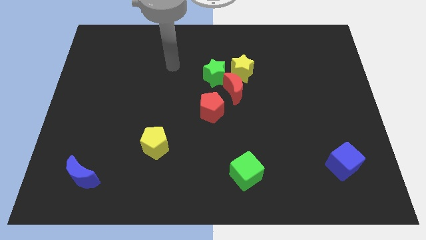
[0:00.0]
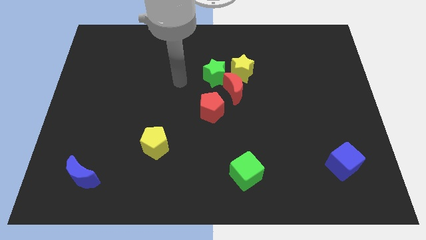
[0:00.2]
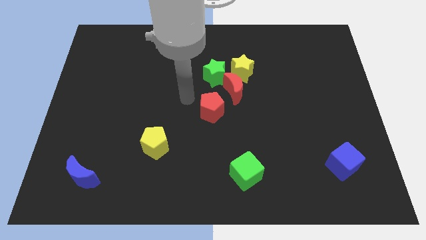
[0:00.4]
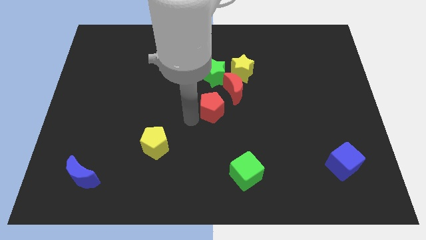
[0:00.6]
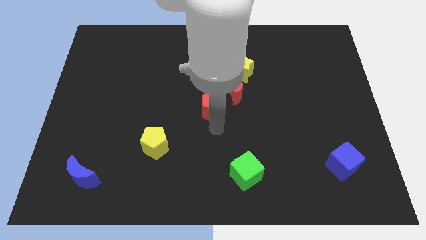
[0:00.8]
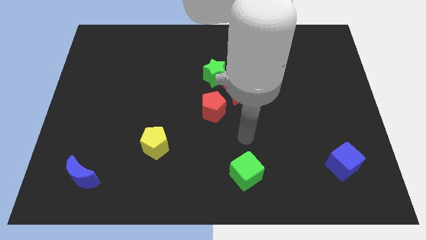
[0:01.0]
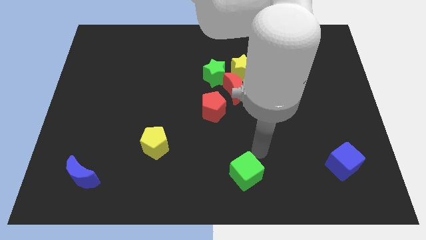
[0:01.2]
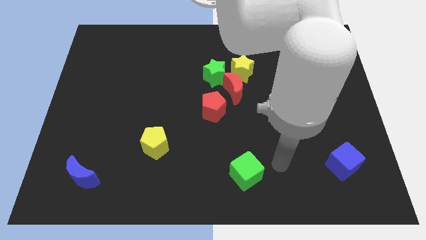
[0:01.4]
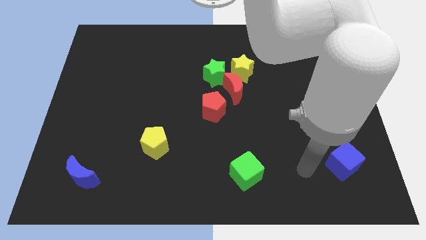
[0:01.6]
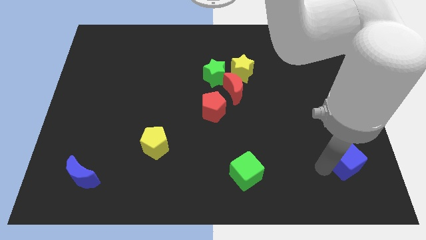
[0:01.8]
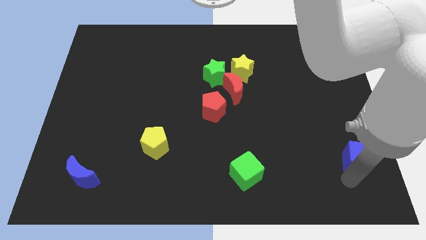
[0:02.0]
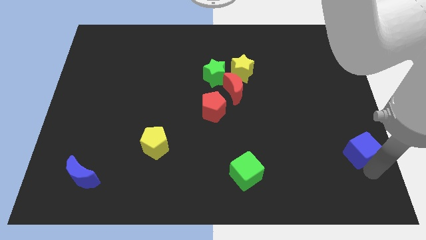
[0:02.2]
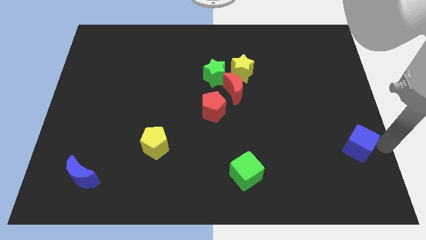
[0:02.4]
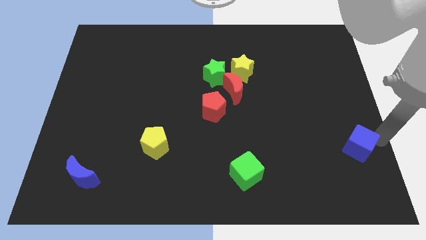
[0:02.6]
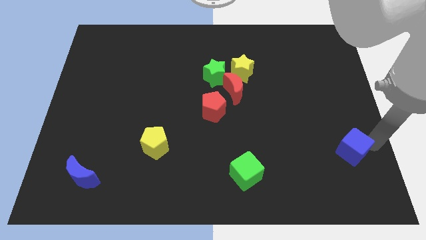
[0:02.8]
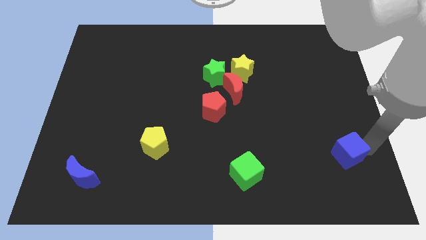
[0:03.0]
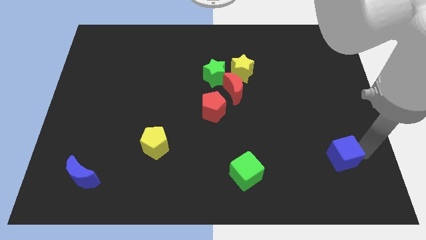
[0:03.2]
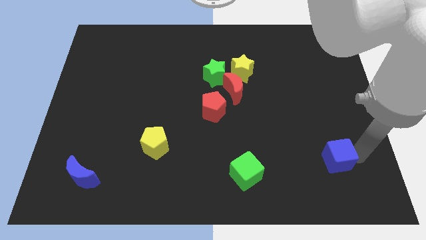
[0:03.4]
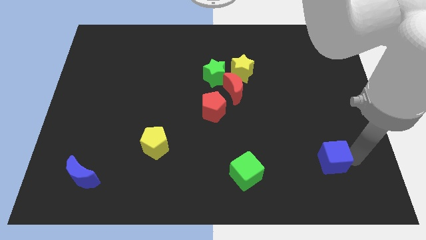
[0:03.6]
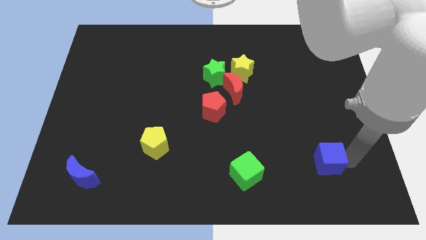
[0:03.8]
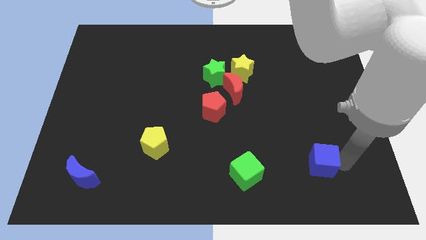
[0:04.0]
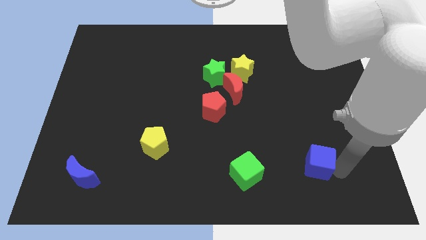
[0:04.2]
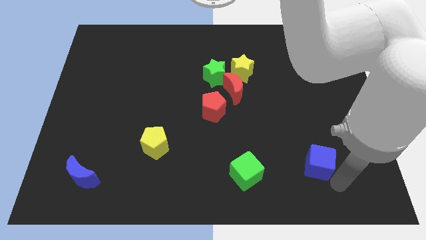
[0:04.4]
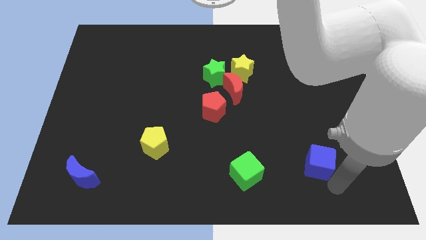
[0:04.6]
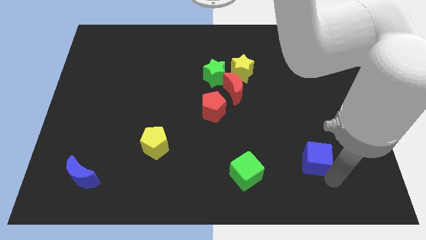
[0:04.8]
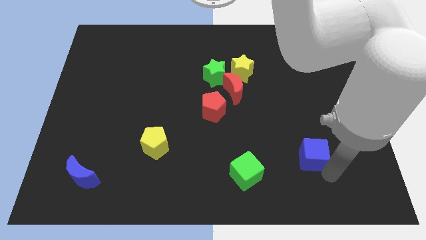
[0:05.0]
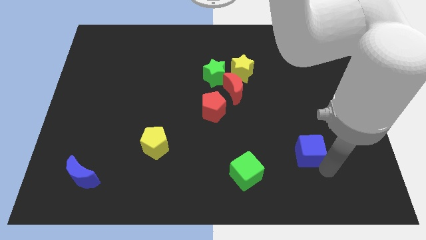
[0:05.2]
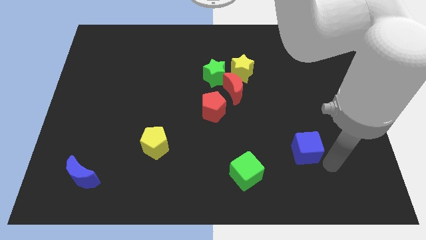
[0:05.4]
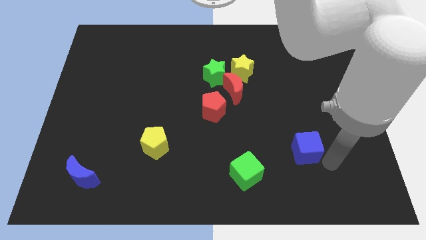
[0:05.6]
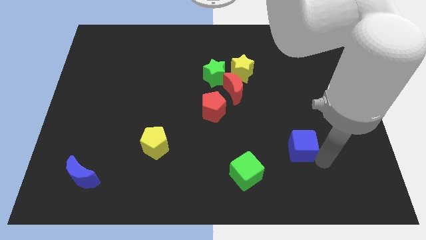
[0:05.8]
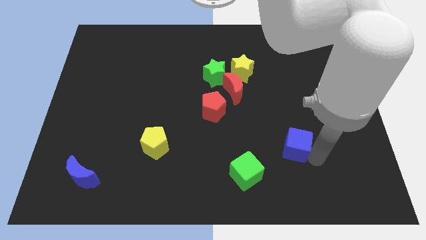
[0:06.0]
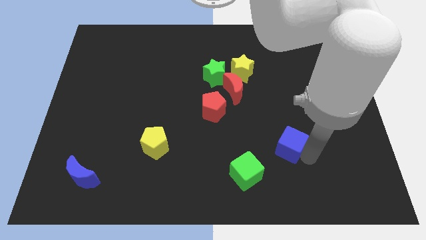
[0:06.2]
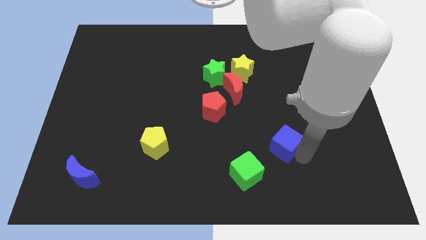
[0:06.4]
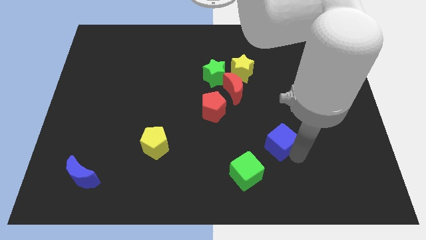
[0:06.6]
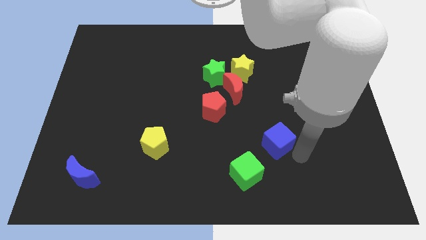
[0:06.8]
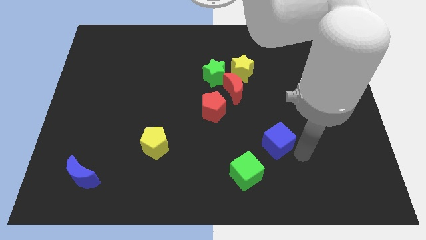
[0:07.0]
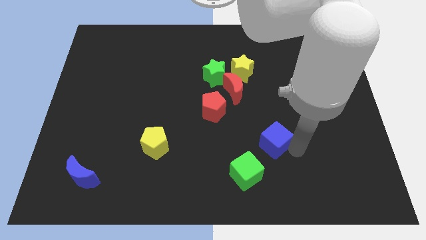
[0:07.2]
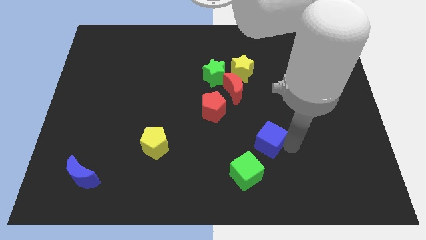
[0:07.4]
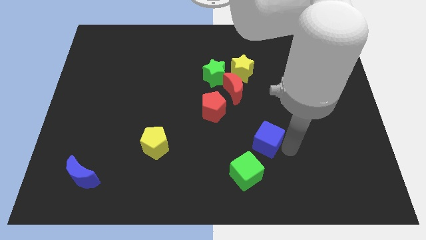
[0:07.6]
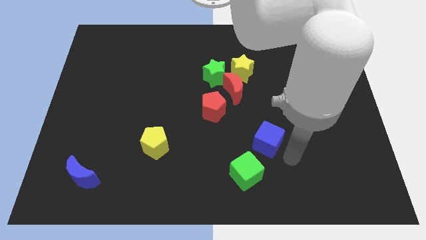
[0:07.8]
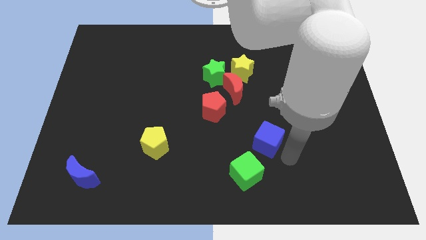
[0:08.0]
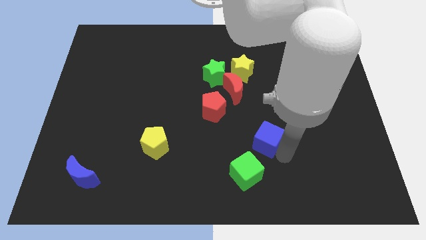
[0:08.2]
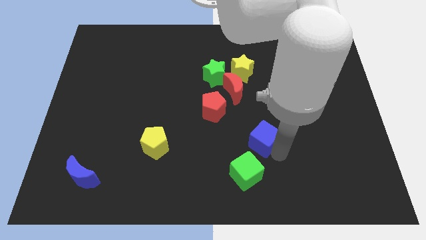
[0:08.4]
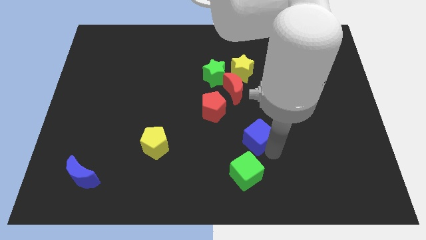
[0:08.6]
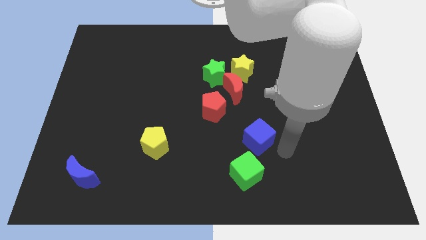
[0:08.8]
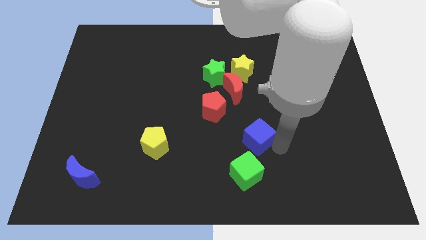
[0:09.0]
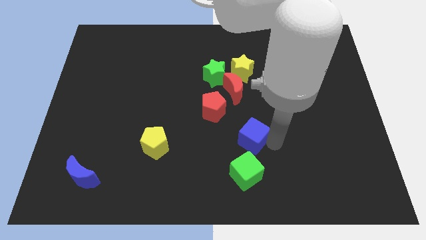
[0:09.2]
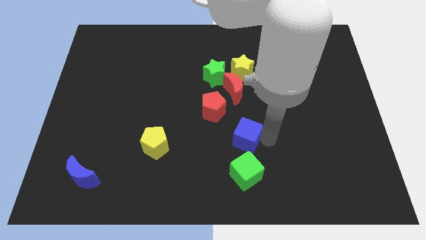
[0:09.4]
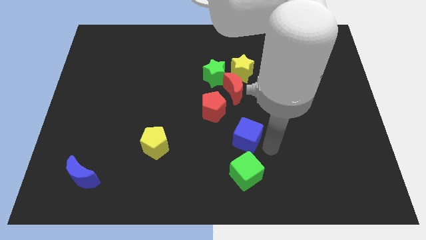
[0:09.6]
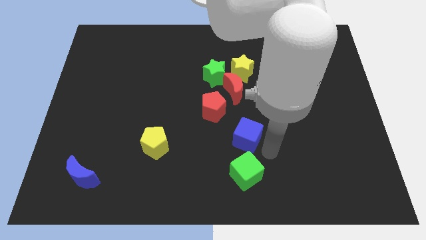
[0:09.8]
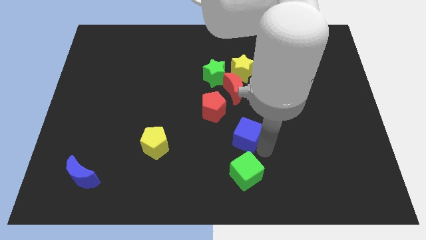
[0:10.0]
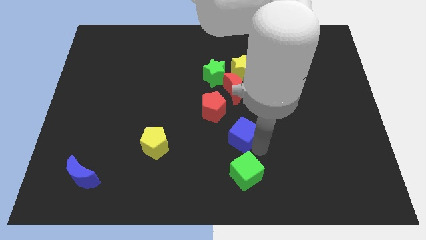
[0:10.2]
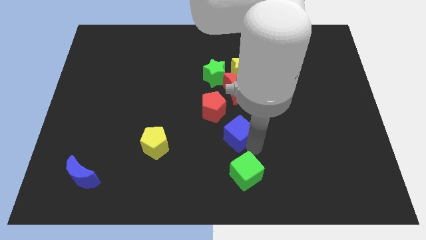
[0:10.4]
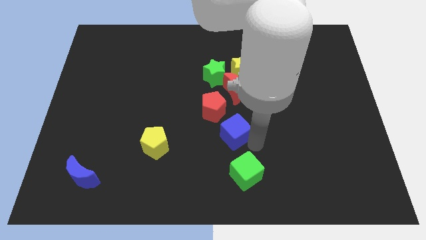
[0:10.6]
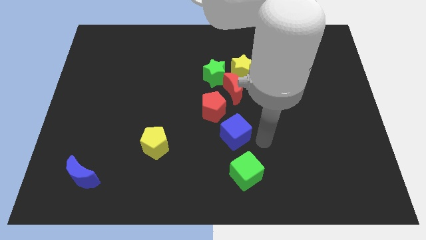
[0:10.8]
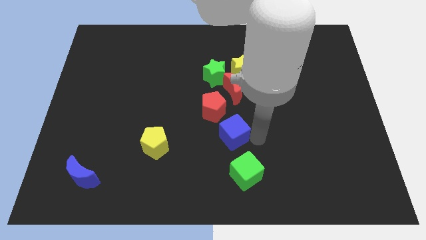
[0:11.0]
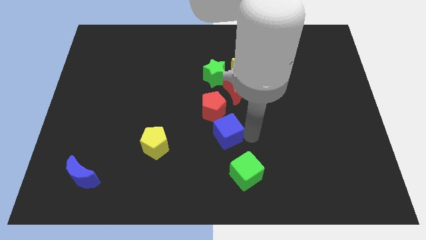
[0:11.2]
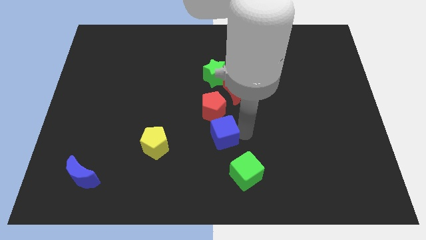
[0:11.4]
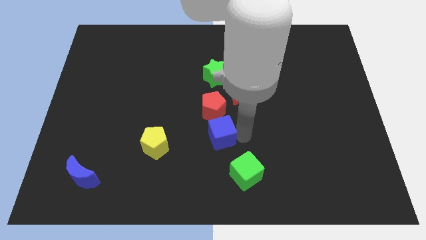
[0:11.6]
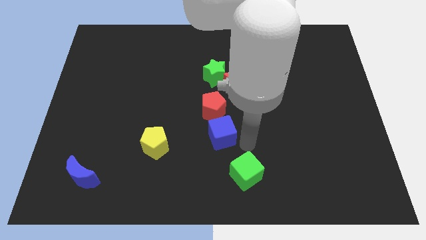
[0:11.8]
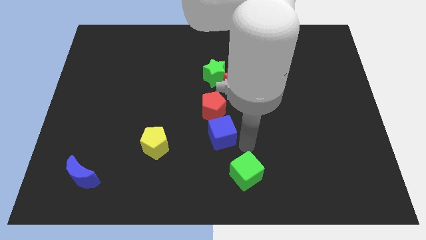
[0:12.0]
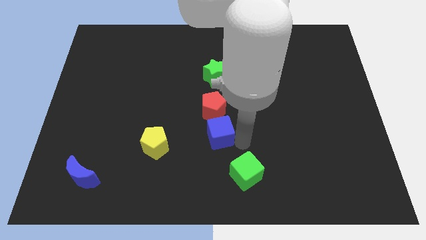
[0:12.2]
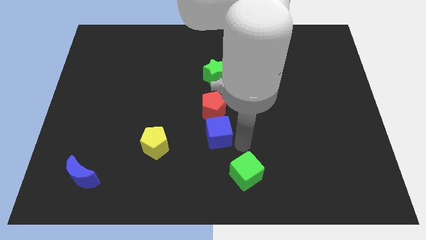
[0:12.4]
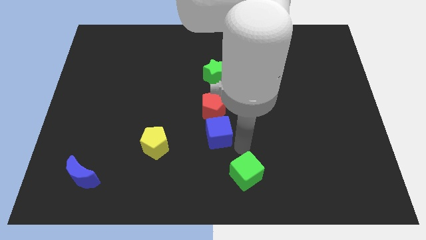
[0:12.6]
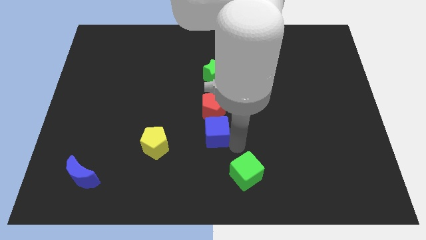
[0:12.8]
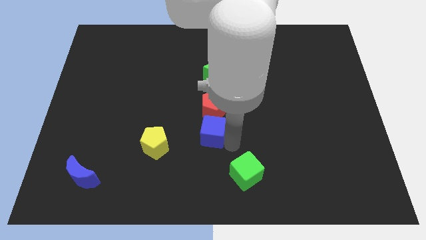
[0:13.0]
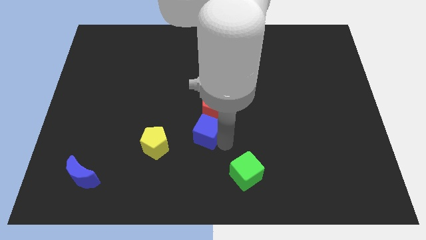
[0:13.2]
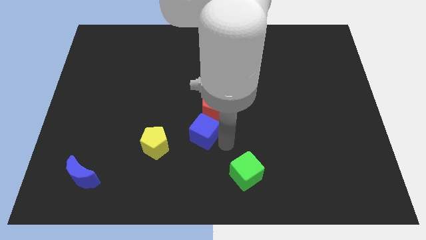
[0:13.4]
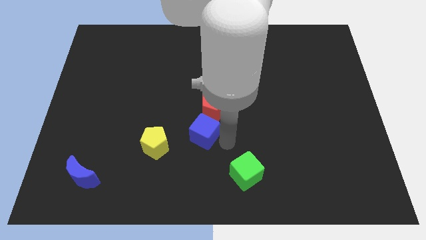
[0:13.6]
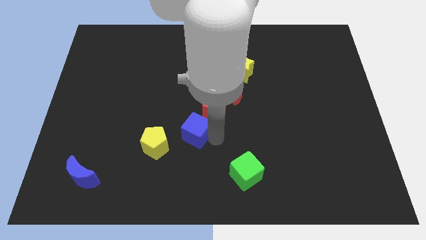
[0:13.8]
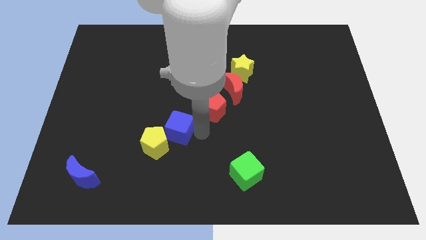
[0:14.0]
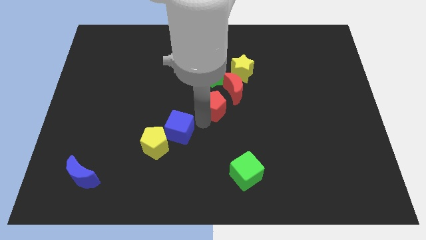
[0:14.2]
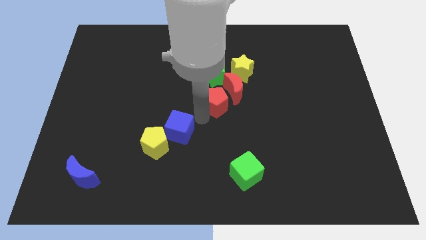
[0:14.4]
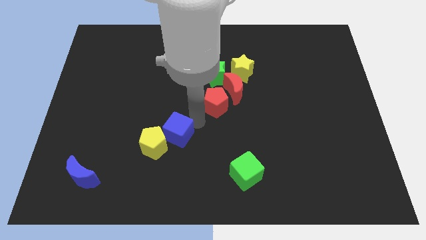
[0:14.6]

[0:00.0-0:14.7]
slide the blue cube close to the yellow pentagon

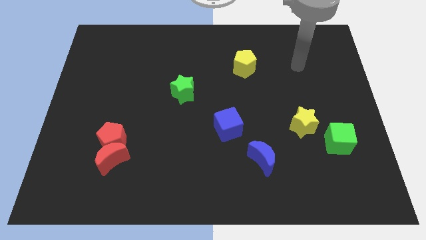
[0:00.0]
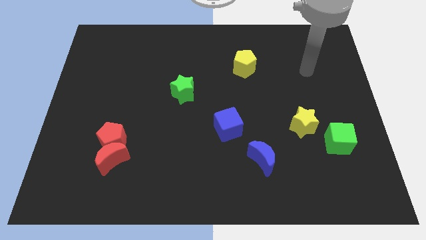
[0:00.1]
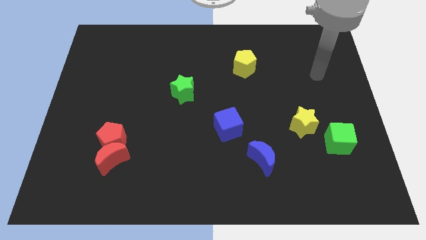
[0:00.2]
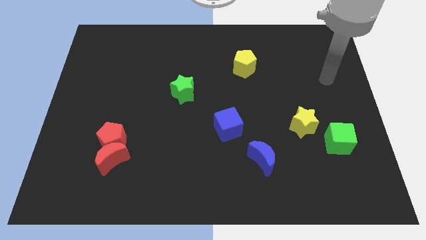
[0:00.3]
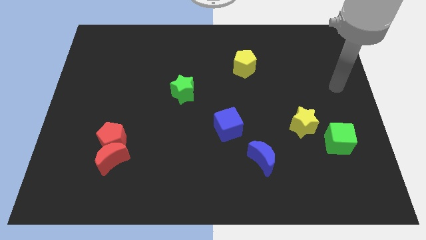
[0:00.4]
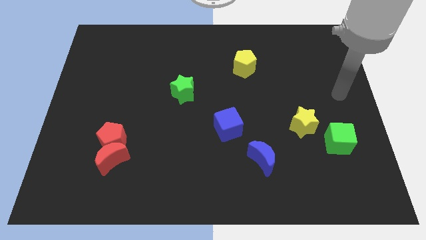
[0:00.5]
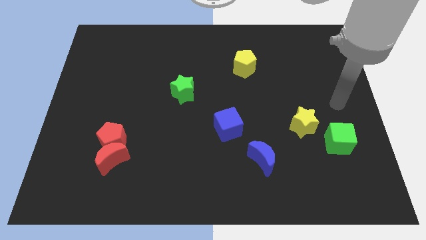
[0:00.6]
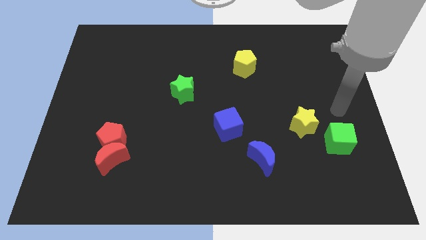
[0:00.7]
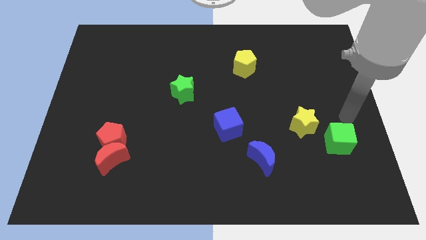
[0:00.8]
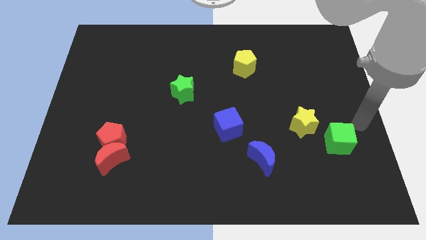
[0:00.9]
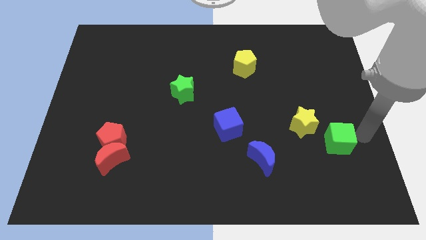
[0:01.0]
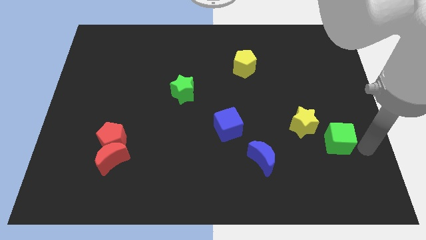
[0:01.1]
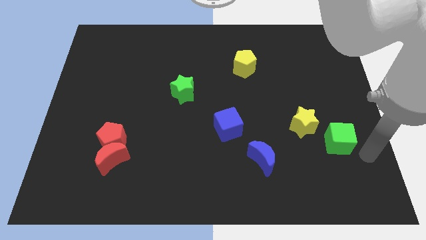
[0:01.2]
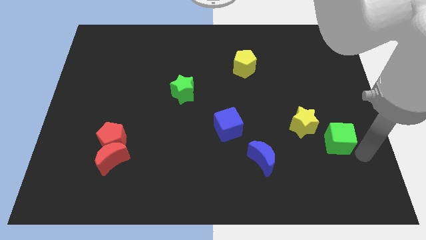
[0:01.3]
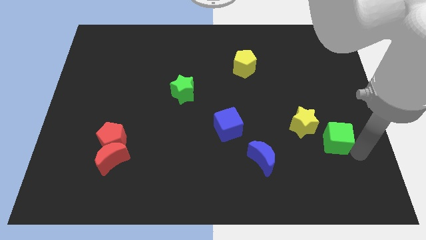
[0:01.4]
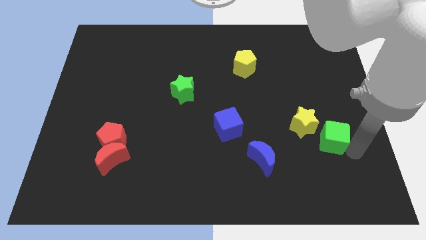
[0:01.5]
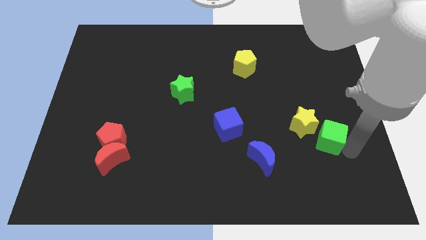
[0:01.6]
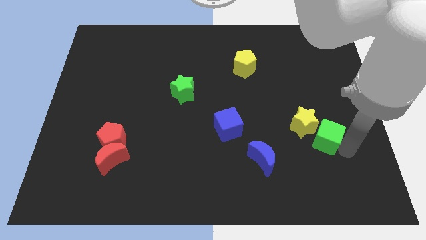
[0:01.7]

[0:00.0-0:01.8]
put the green cube to the yellow star
